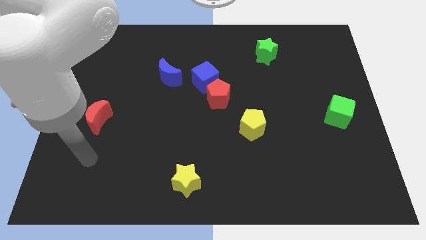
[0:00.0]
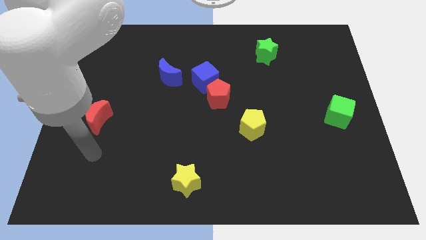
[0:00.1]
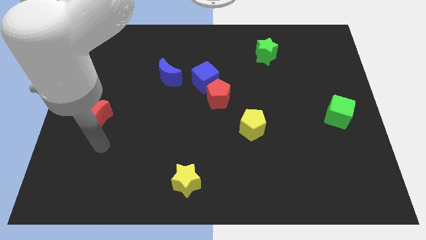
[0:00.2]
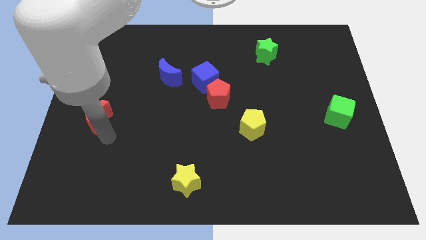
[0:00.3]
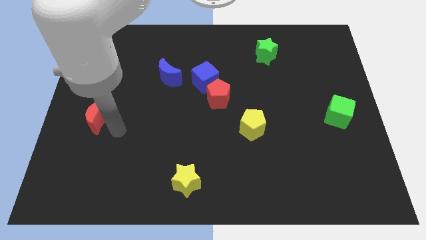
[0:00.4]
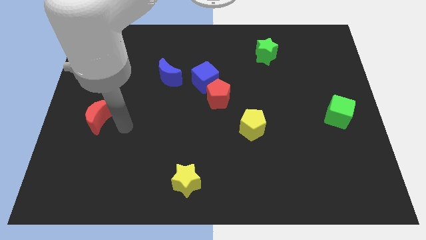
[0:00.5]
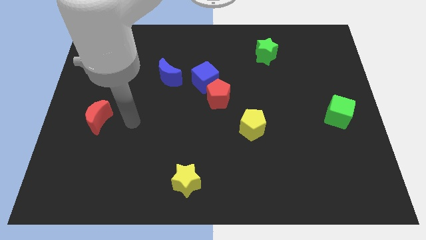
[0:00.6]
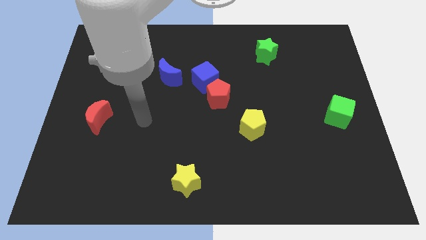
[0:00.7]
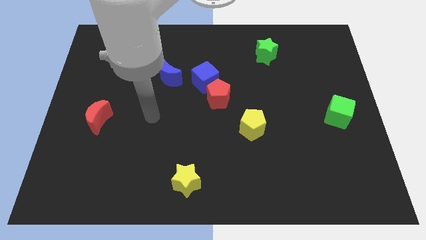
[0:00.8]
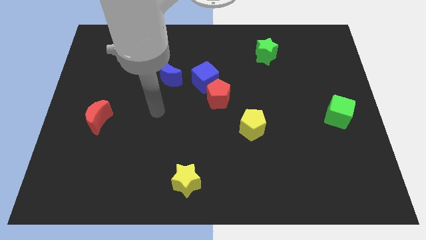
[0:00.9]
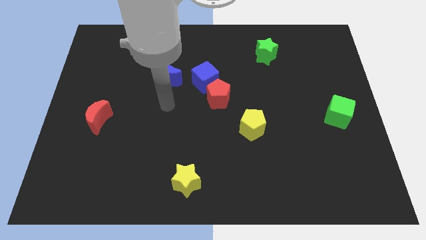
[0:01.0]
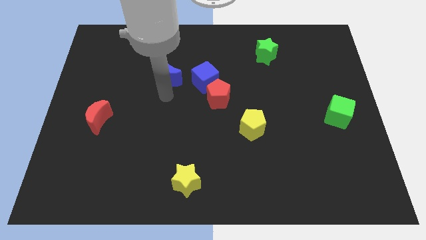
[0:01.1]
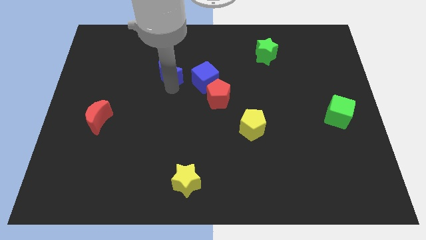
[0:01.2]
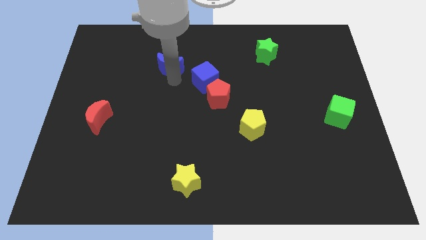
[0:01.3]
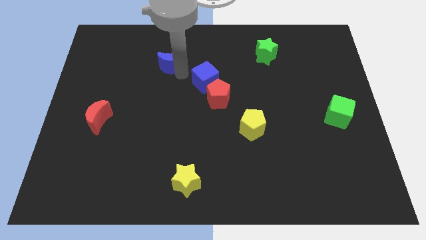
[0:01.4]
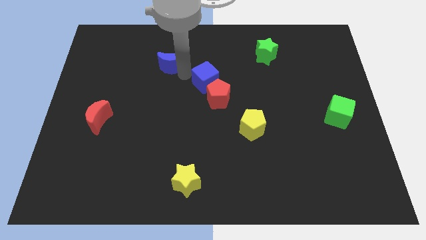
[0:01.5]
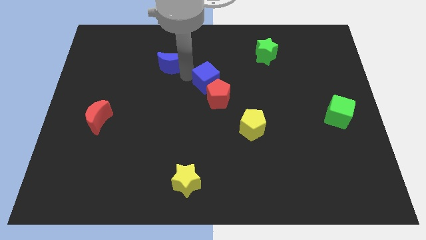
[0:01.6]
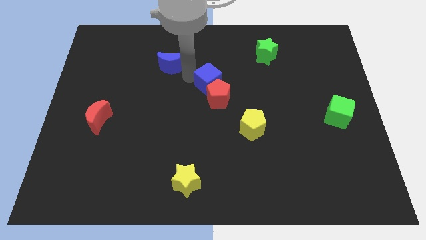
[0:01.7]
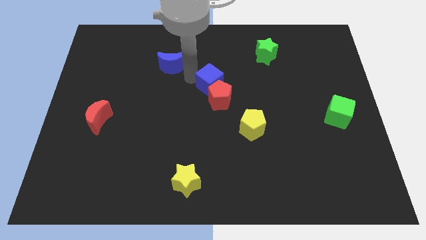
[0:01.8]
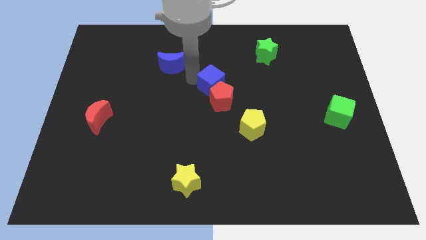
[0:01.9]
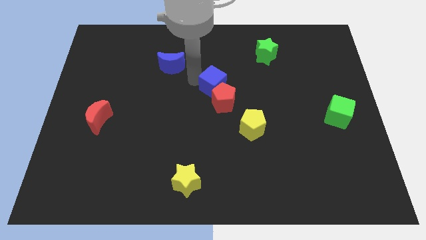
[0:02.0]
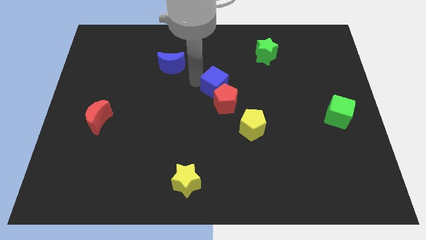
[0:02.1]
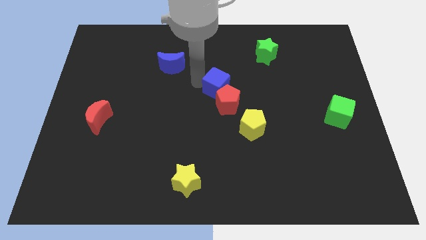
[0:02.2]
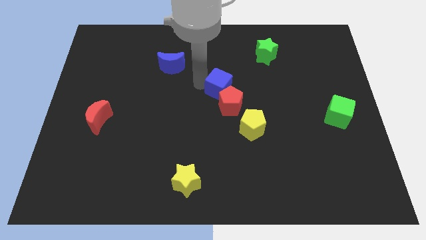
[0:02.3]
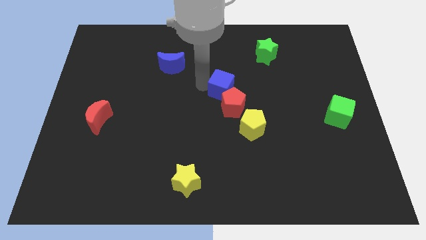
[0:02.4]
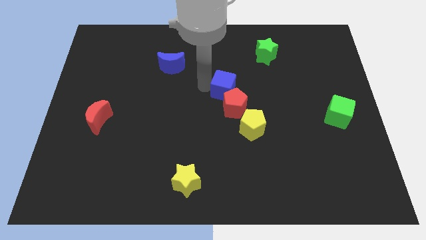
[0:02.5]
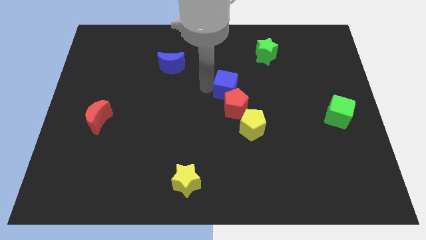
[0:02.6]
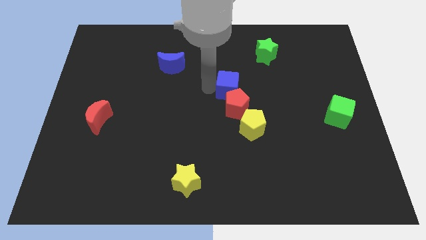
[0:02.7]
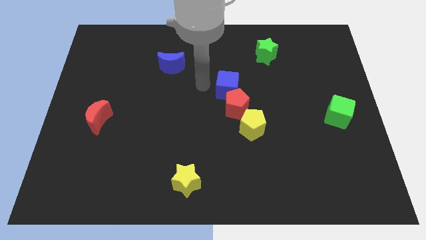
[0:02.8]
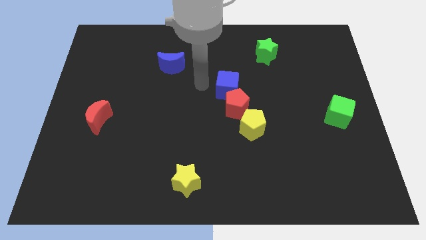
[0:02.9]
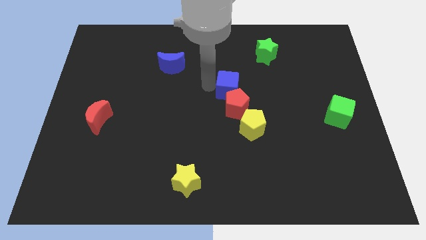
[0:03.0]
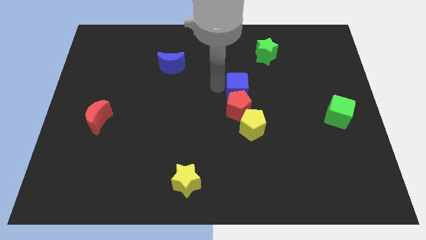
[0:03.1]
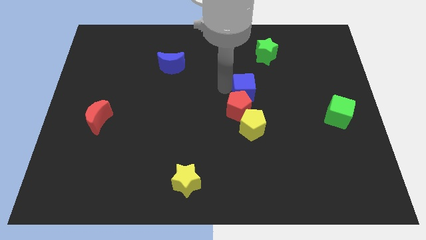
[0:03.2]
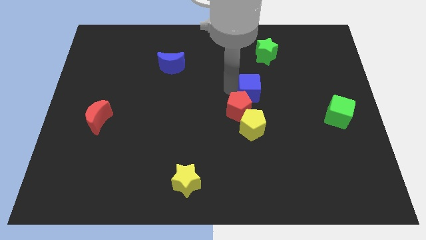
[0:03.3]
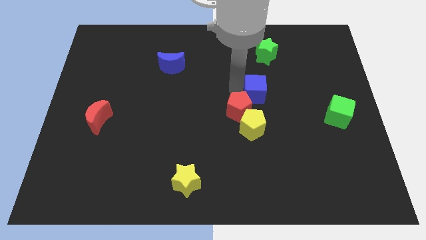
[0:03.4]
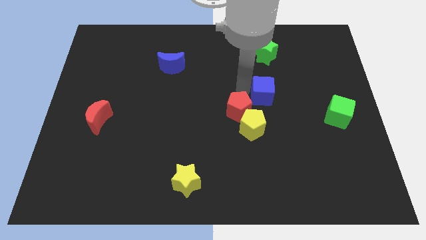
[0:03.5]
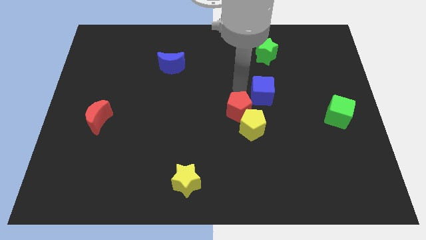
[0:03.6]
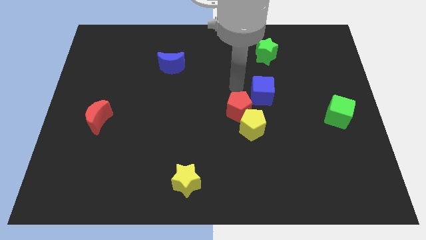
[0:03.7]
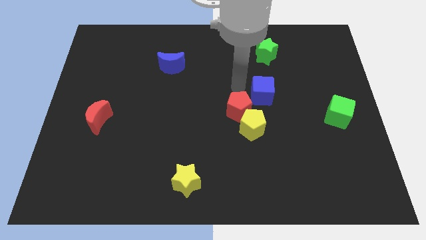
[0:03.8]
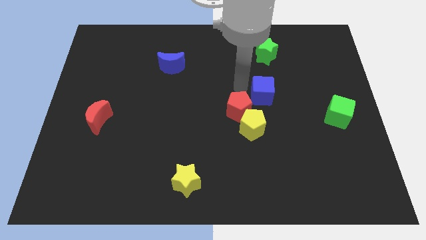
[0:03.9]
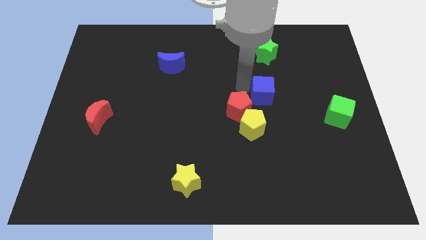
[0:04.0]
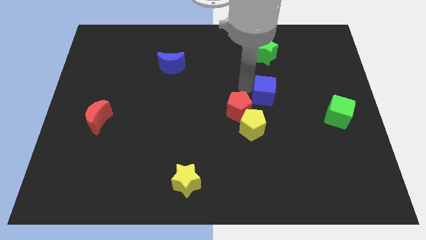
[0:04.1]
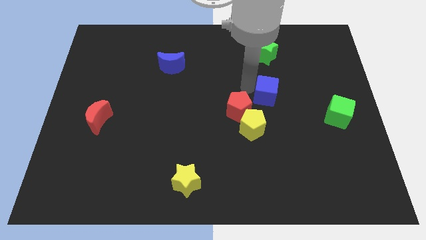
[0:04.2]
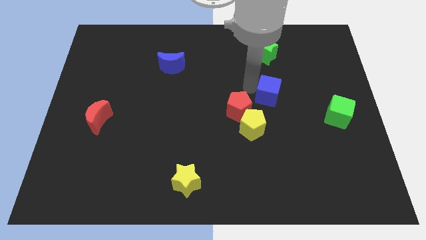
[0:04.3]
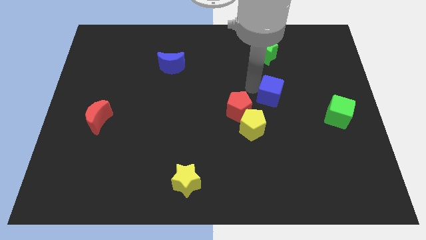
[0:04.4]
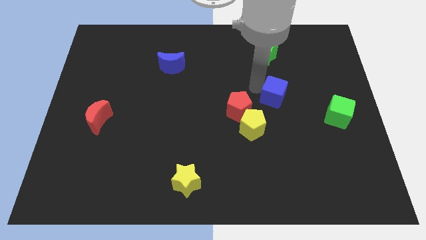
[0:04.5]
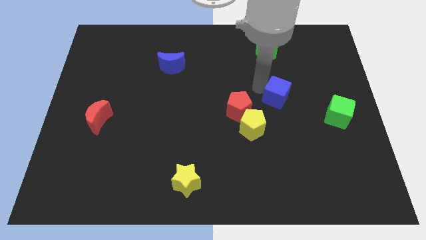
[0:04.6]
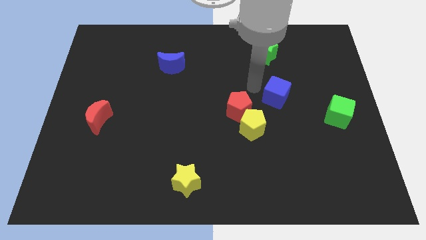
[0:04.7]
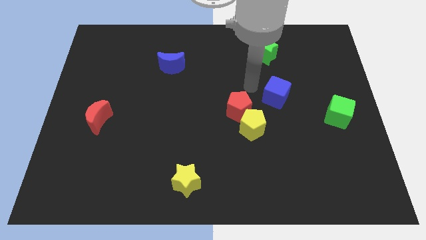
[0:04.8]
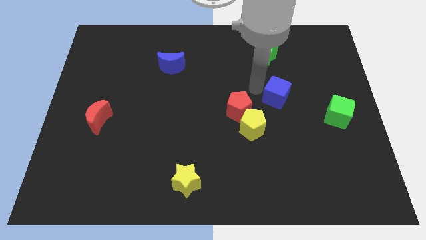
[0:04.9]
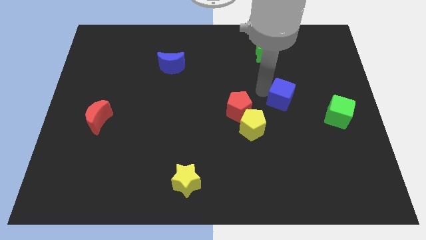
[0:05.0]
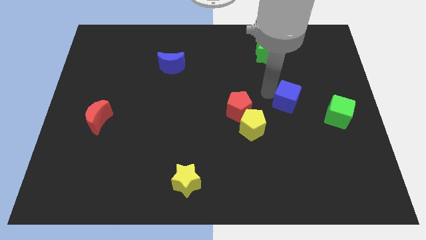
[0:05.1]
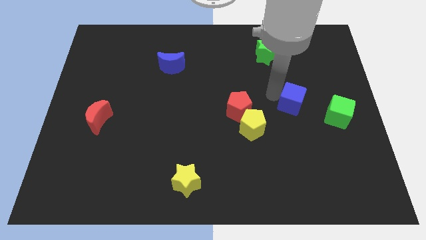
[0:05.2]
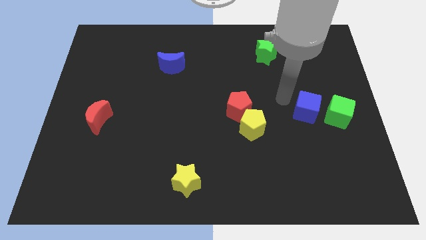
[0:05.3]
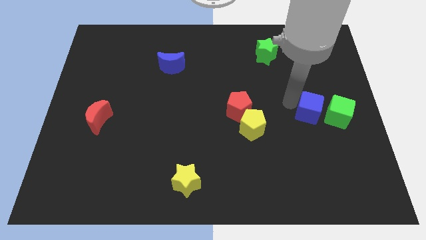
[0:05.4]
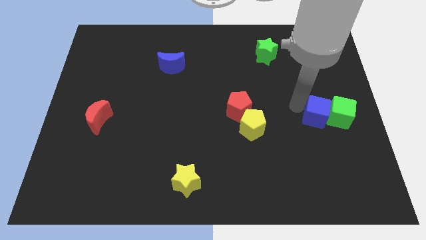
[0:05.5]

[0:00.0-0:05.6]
push the blue cube close to the green cube

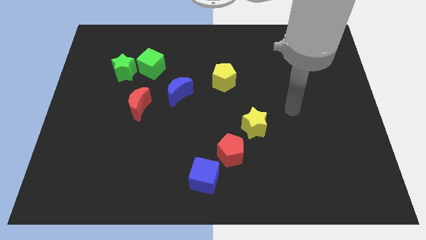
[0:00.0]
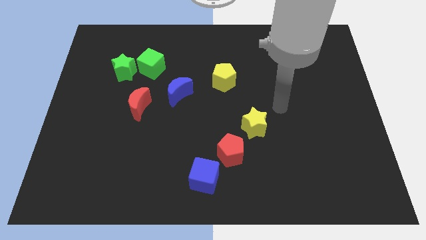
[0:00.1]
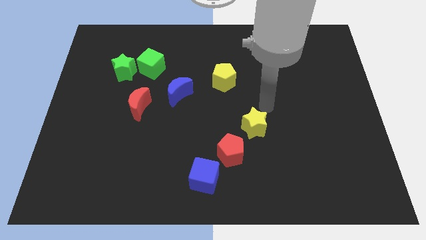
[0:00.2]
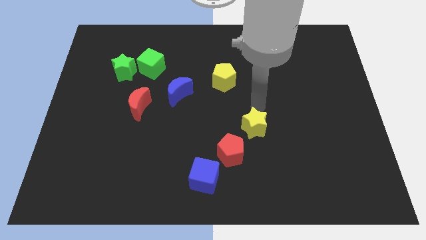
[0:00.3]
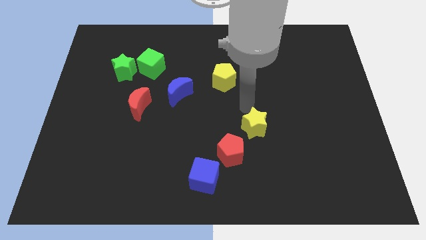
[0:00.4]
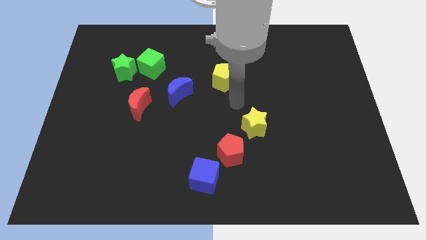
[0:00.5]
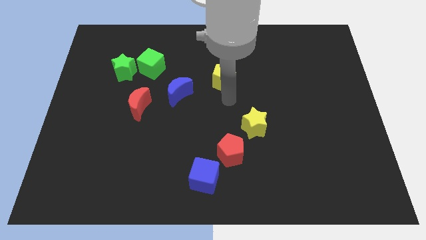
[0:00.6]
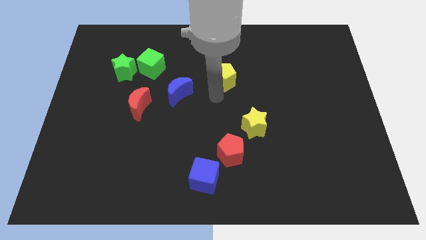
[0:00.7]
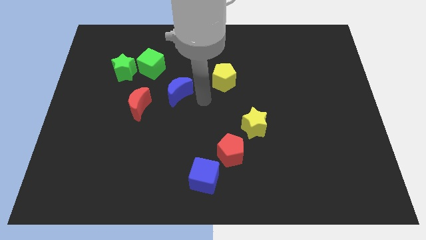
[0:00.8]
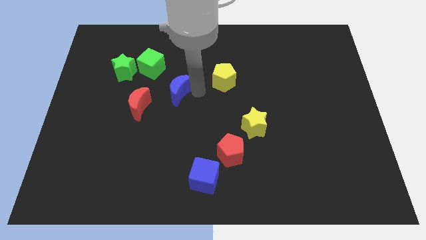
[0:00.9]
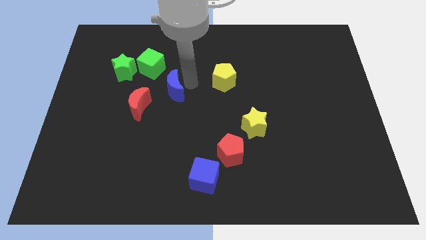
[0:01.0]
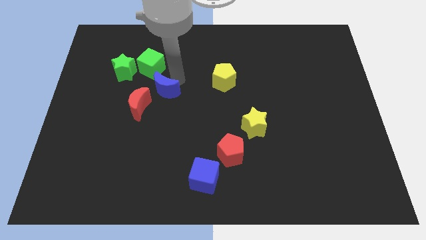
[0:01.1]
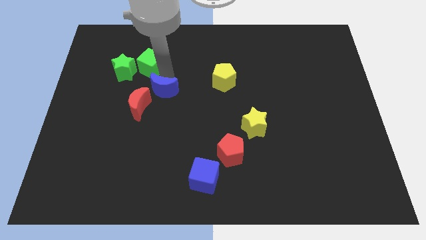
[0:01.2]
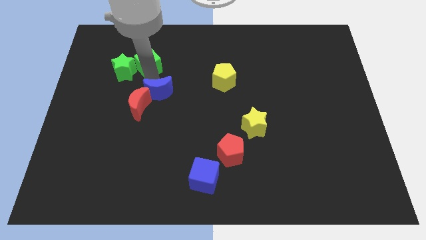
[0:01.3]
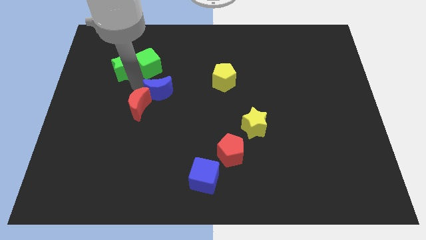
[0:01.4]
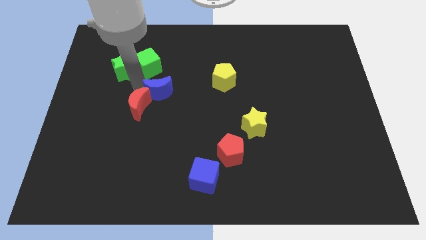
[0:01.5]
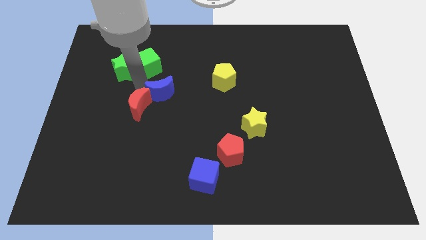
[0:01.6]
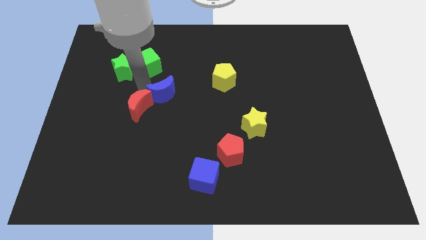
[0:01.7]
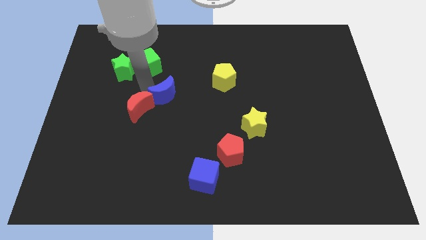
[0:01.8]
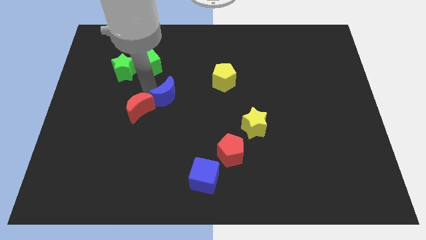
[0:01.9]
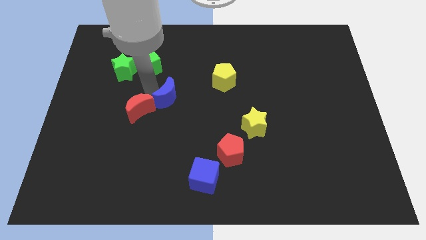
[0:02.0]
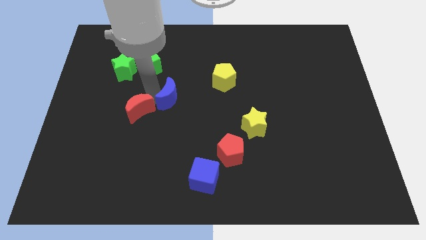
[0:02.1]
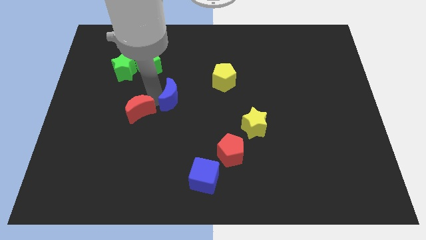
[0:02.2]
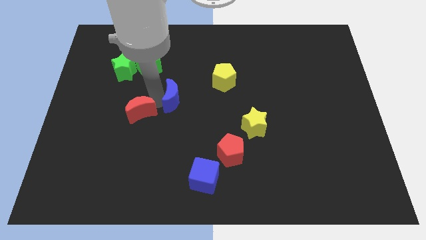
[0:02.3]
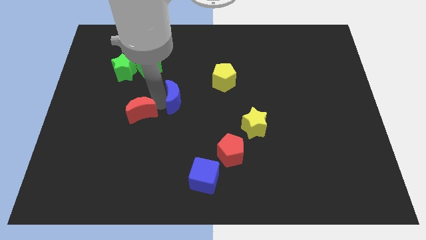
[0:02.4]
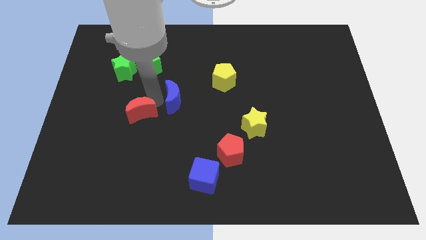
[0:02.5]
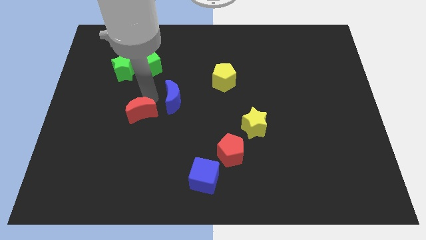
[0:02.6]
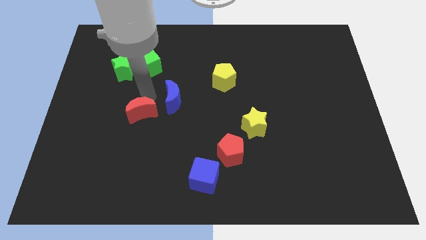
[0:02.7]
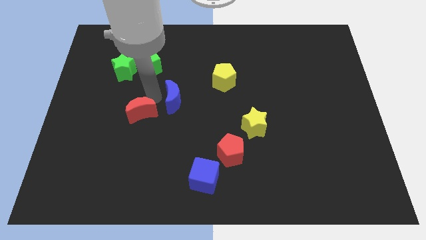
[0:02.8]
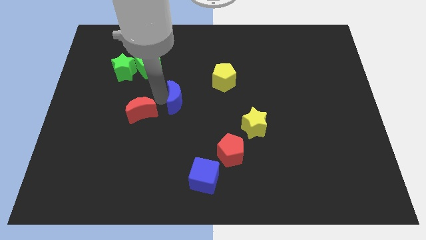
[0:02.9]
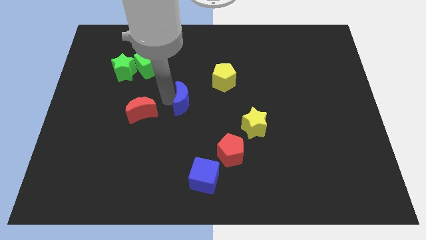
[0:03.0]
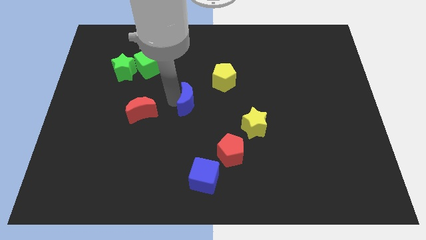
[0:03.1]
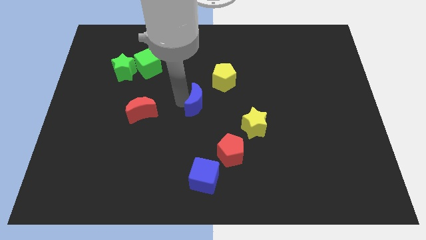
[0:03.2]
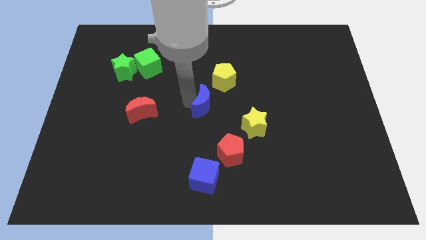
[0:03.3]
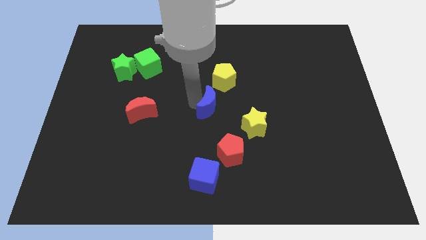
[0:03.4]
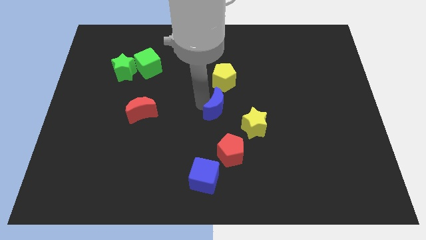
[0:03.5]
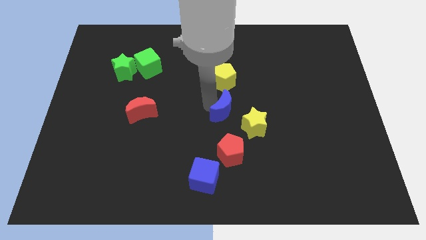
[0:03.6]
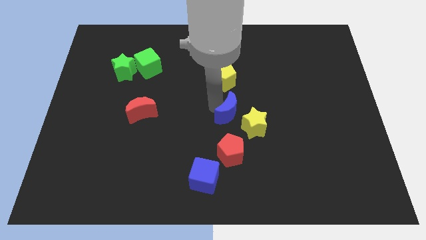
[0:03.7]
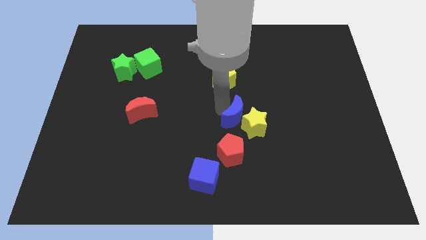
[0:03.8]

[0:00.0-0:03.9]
put the blue moon close to the yellow star
